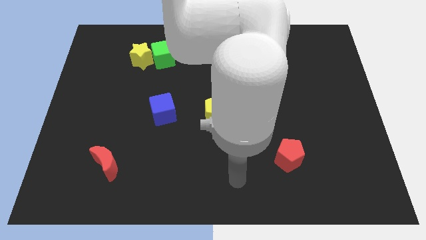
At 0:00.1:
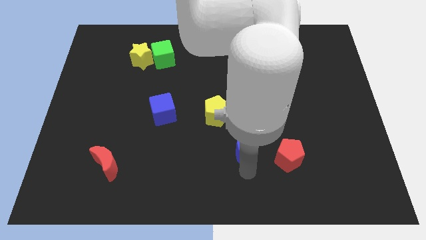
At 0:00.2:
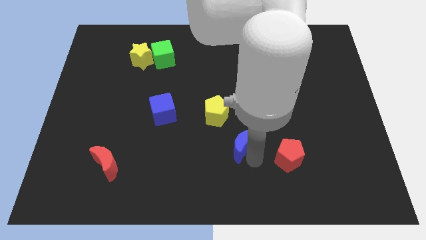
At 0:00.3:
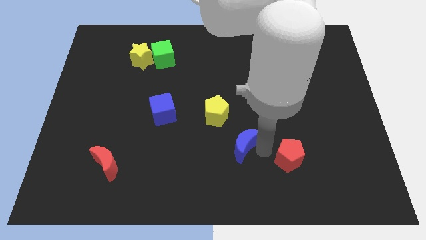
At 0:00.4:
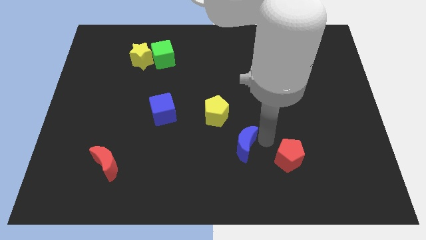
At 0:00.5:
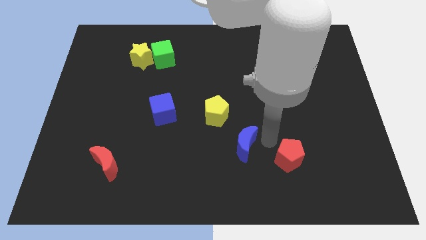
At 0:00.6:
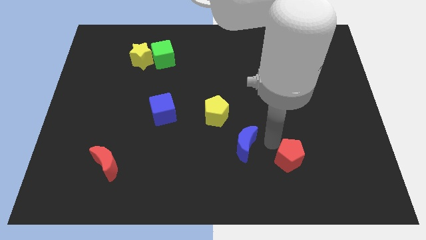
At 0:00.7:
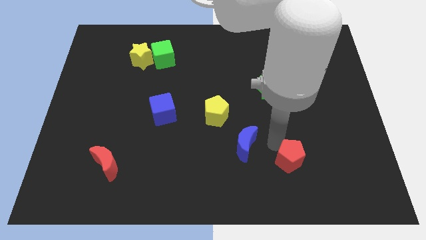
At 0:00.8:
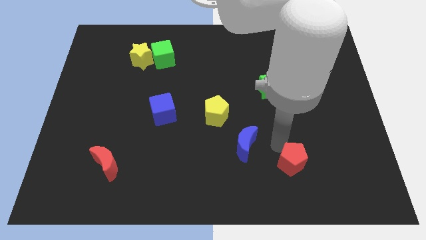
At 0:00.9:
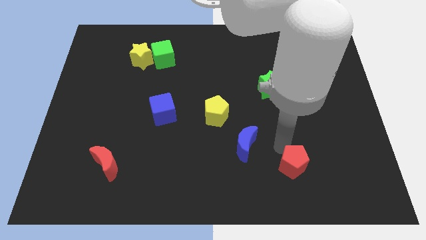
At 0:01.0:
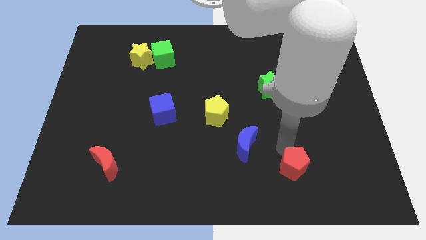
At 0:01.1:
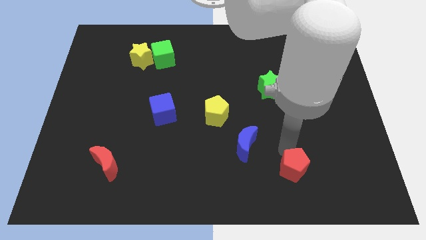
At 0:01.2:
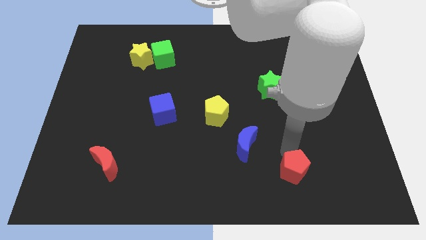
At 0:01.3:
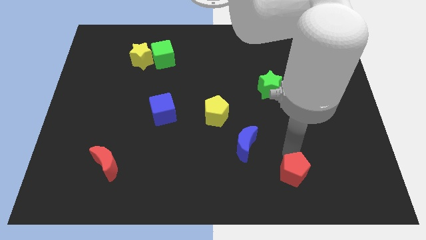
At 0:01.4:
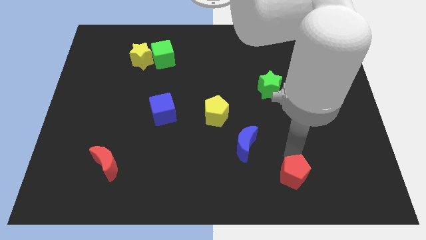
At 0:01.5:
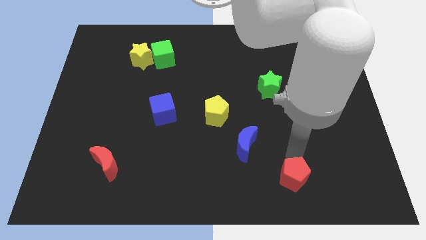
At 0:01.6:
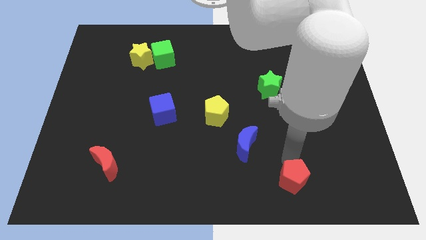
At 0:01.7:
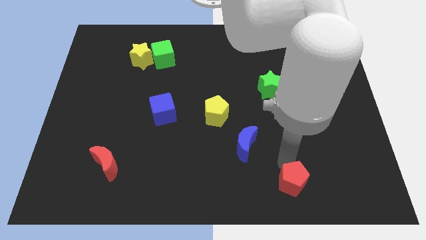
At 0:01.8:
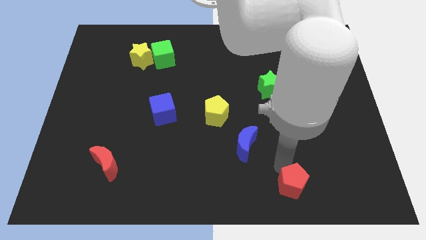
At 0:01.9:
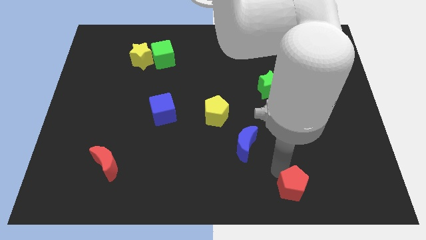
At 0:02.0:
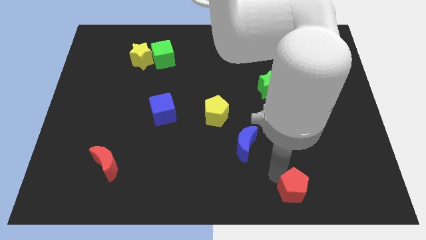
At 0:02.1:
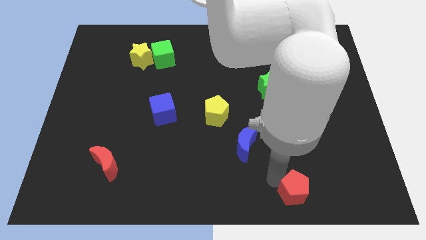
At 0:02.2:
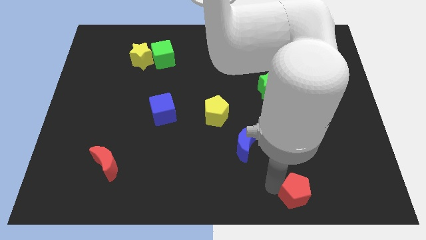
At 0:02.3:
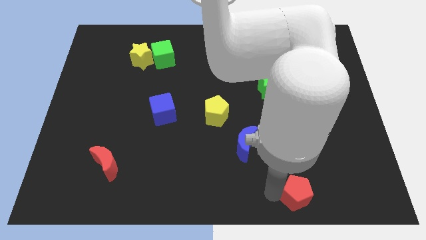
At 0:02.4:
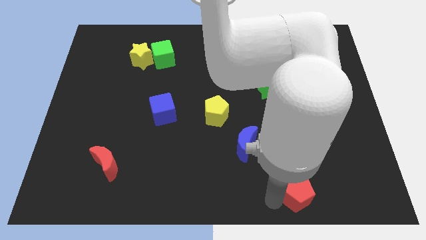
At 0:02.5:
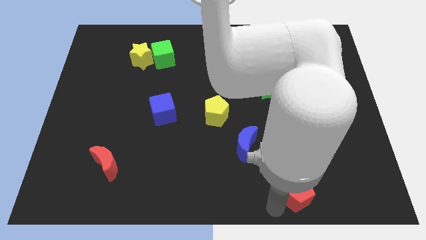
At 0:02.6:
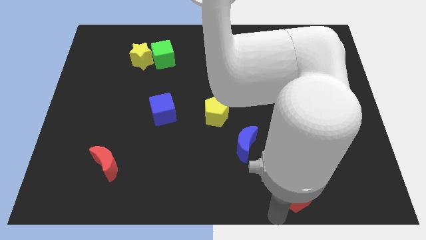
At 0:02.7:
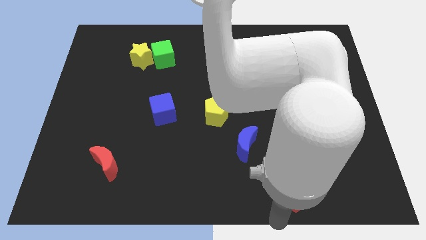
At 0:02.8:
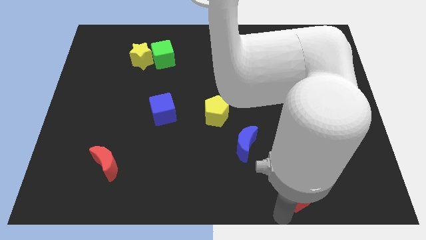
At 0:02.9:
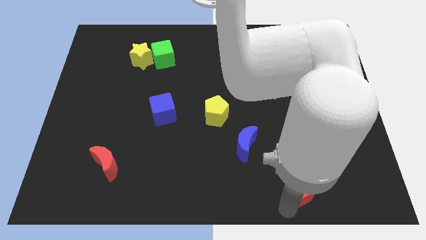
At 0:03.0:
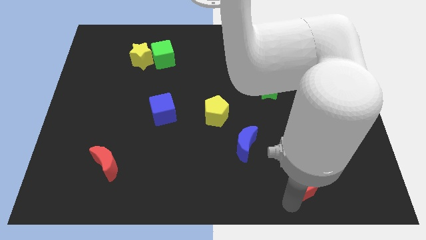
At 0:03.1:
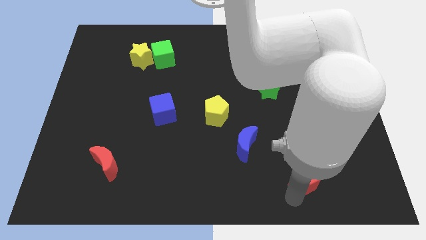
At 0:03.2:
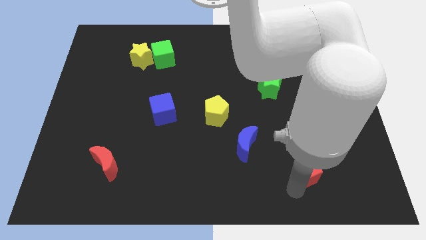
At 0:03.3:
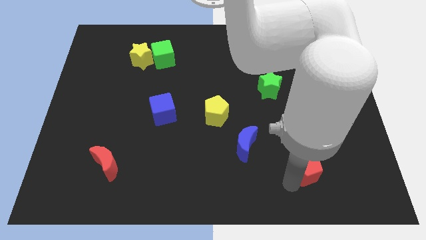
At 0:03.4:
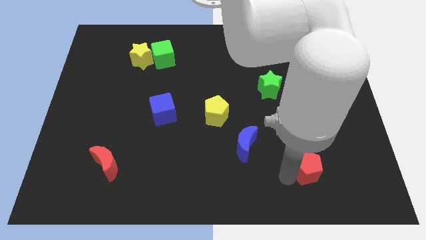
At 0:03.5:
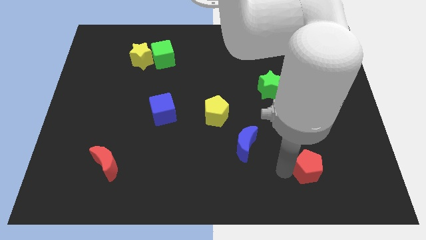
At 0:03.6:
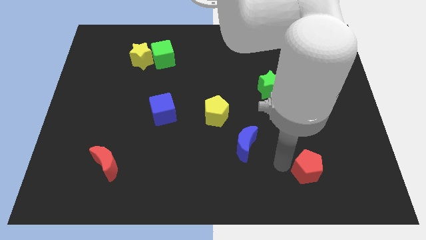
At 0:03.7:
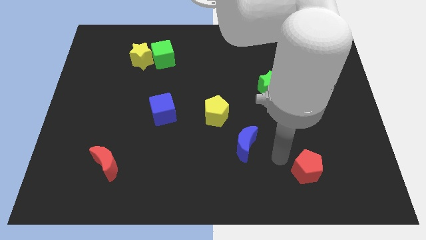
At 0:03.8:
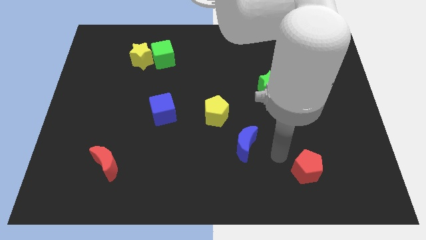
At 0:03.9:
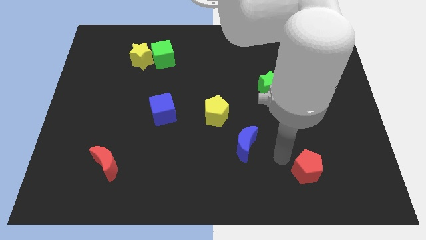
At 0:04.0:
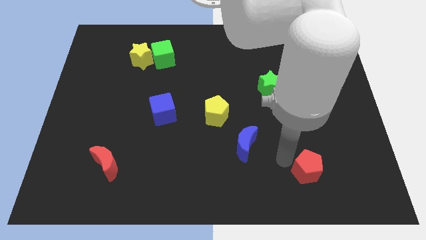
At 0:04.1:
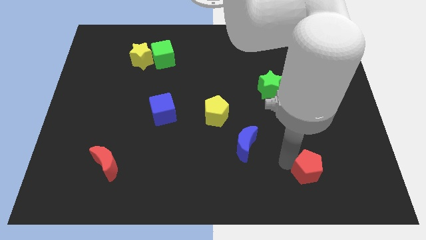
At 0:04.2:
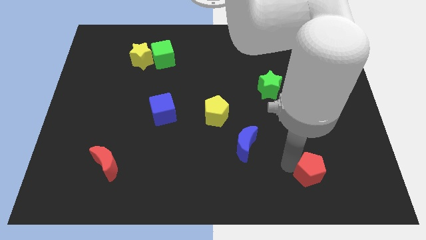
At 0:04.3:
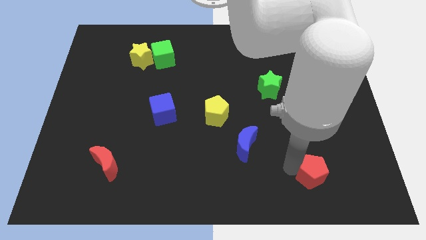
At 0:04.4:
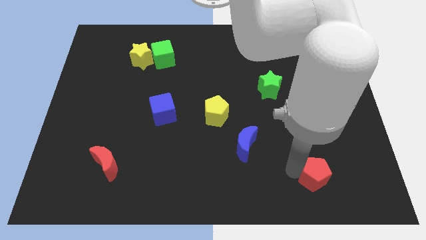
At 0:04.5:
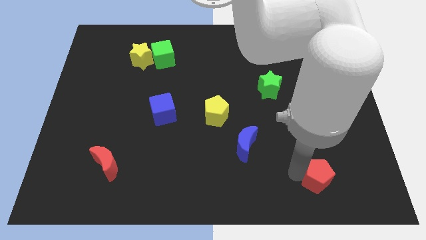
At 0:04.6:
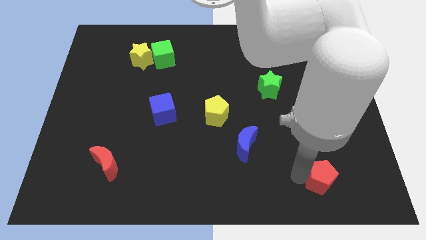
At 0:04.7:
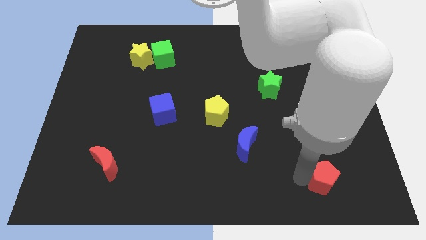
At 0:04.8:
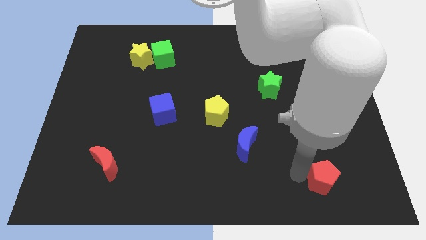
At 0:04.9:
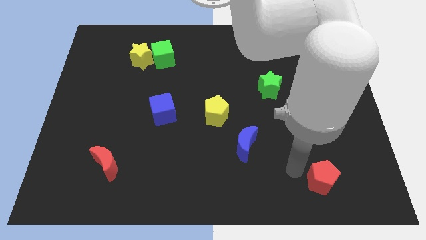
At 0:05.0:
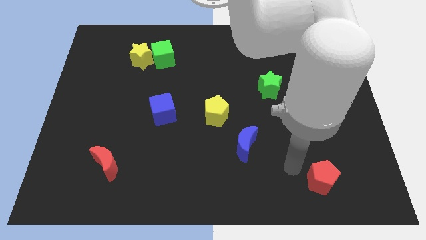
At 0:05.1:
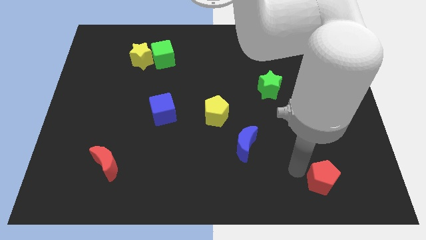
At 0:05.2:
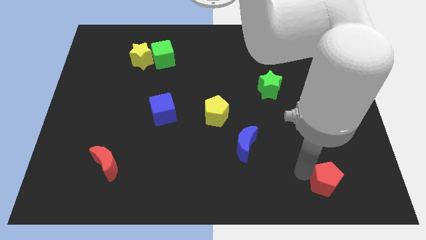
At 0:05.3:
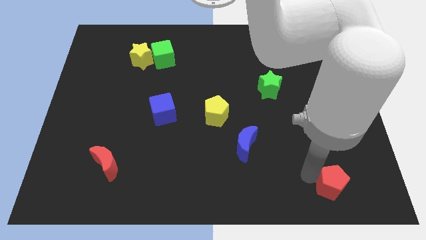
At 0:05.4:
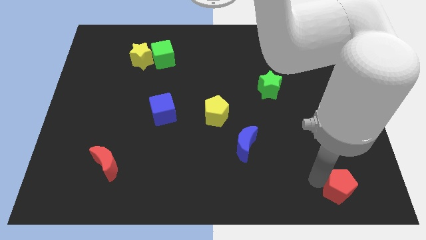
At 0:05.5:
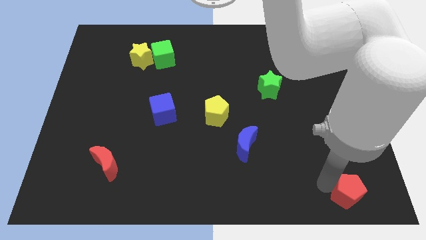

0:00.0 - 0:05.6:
push the red pentagon to the bottom right

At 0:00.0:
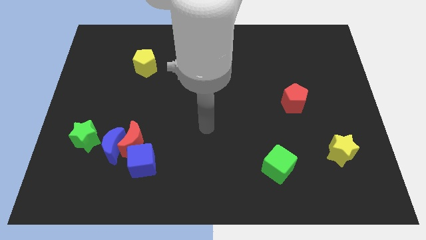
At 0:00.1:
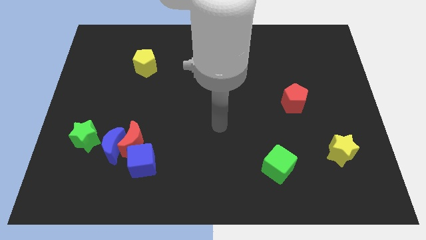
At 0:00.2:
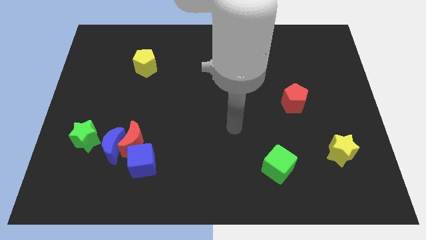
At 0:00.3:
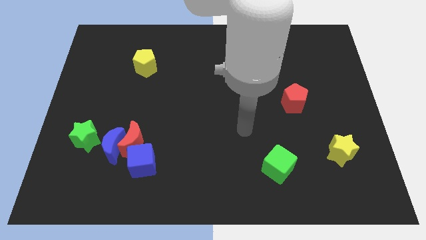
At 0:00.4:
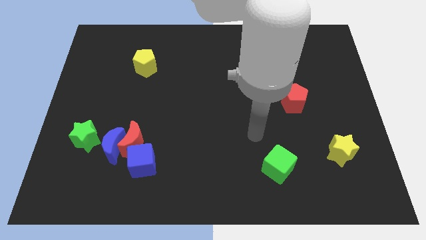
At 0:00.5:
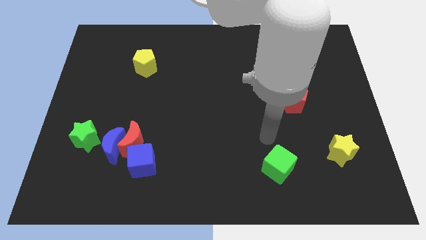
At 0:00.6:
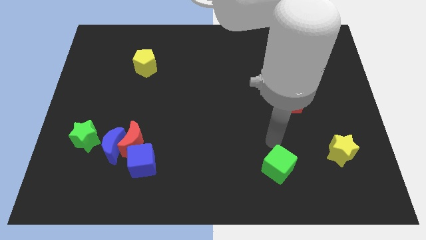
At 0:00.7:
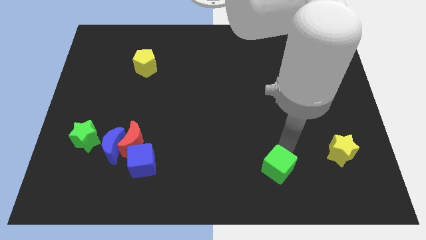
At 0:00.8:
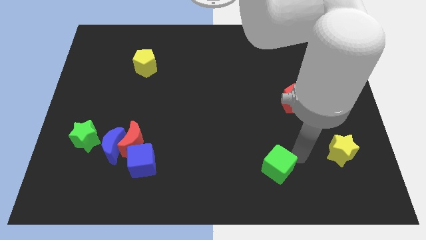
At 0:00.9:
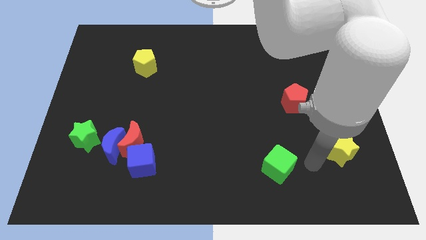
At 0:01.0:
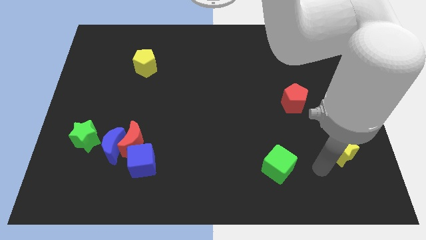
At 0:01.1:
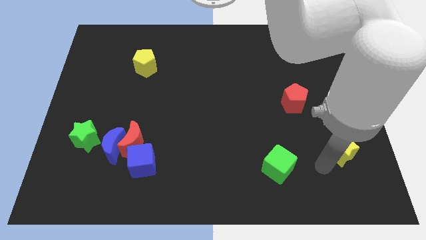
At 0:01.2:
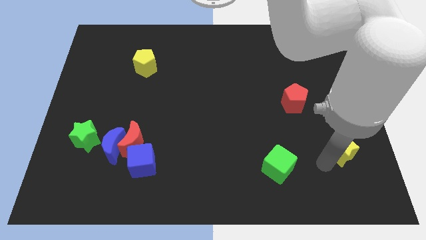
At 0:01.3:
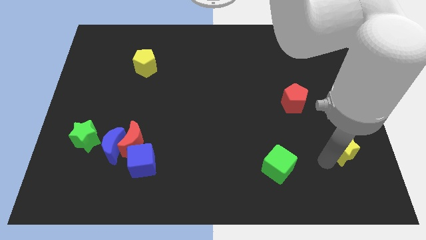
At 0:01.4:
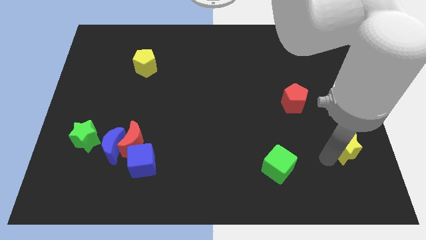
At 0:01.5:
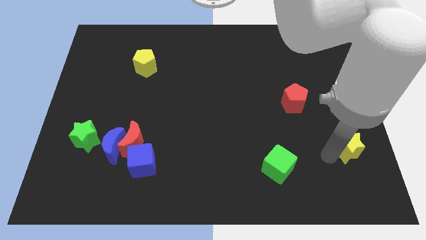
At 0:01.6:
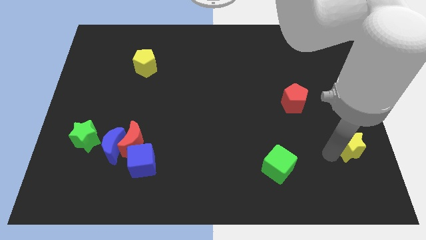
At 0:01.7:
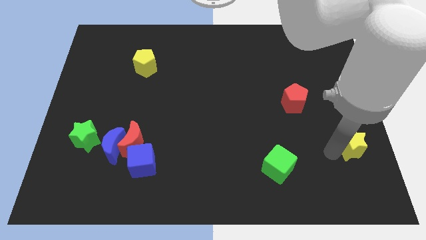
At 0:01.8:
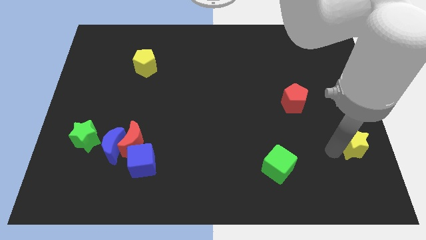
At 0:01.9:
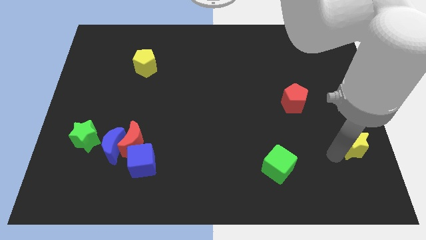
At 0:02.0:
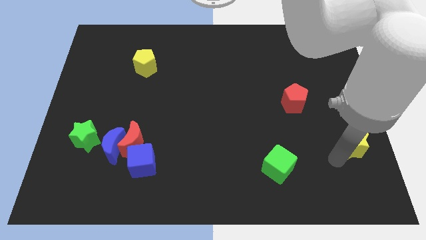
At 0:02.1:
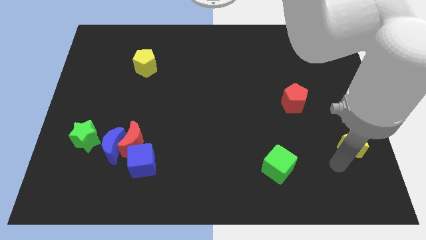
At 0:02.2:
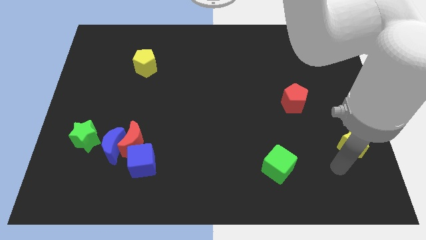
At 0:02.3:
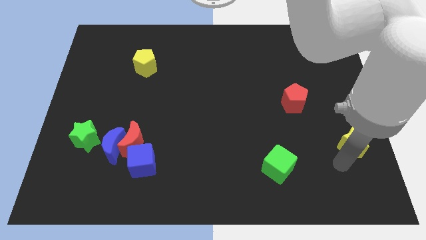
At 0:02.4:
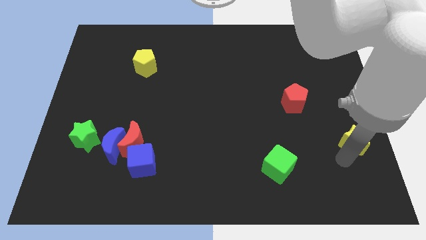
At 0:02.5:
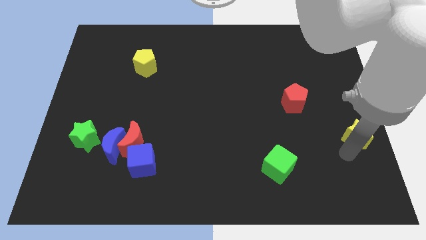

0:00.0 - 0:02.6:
push the yellow star to the right side
